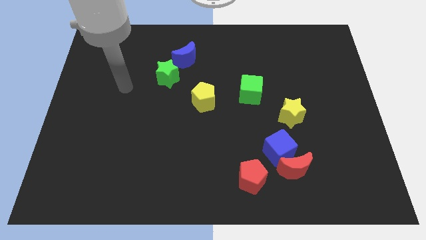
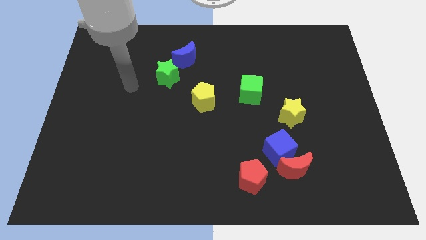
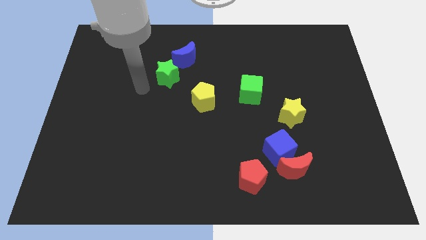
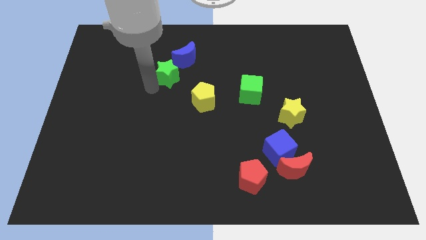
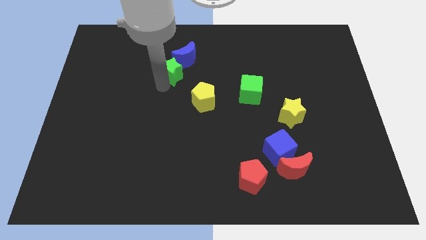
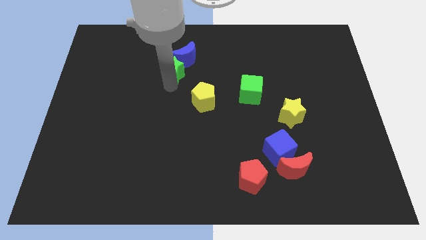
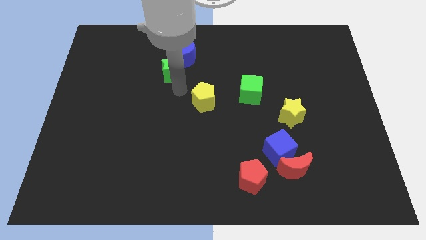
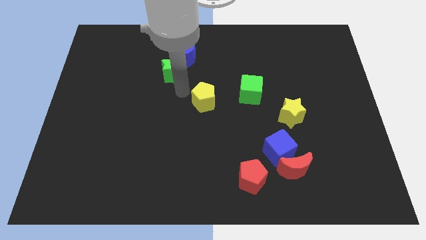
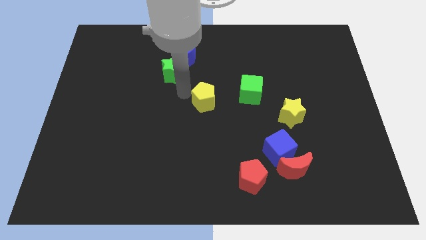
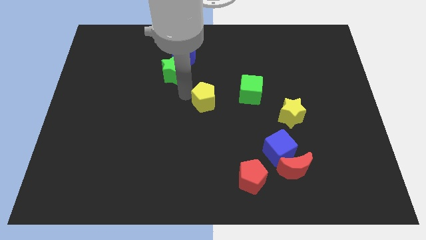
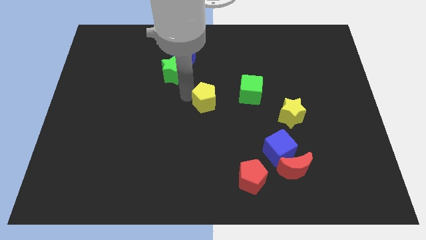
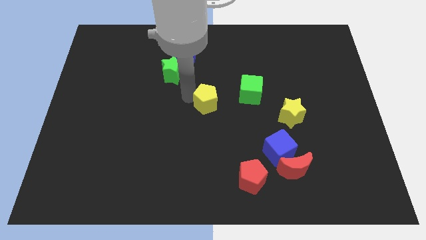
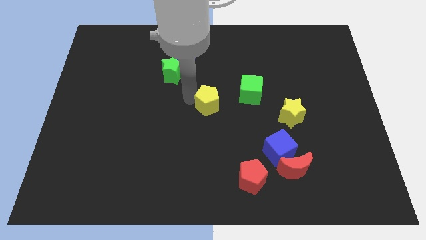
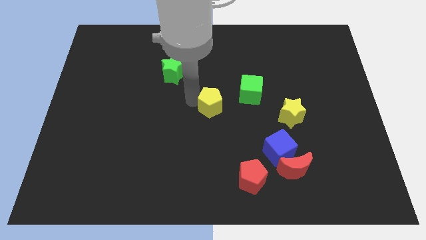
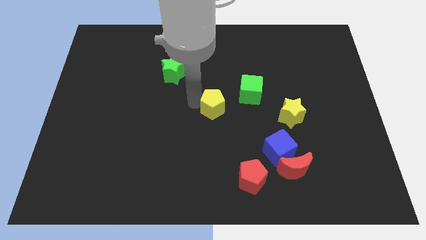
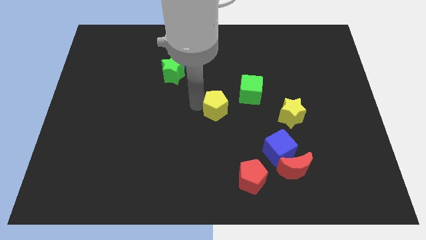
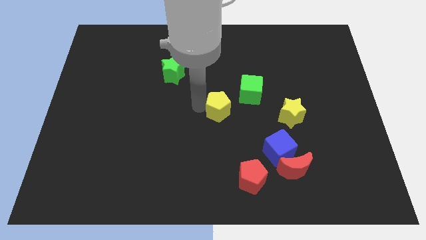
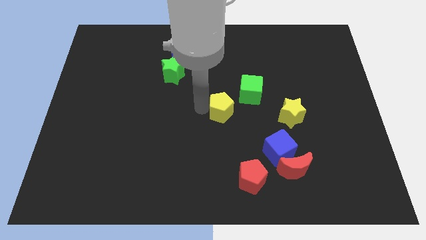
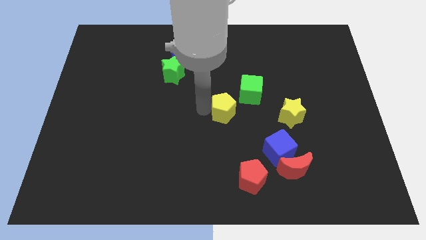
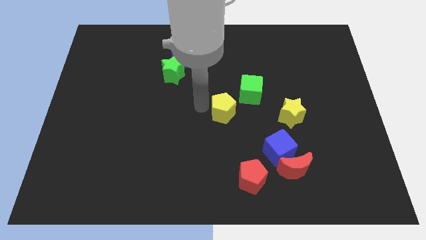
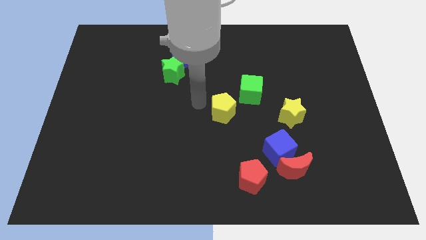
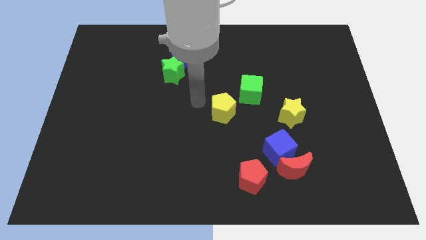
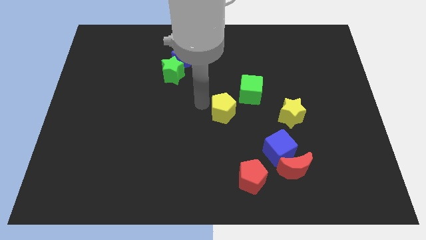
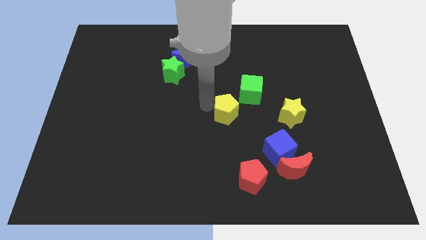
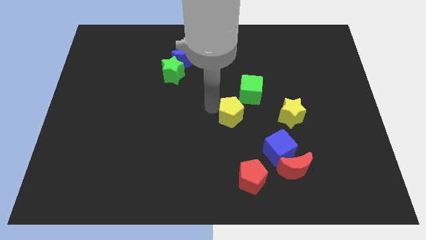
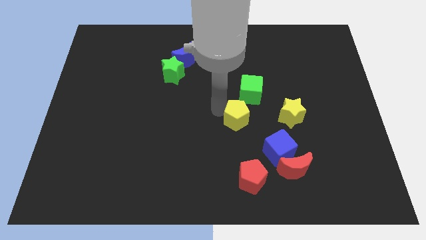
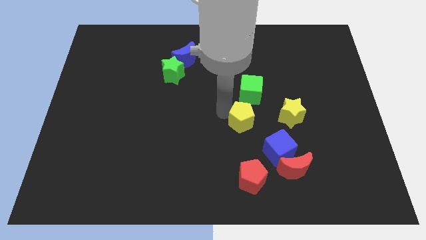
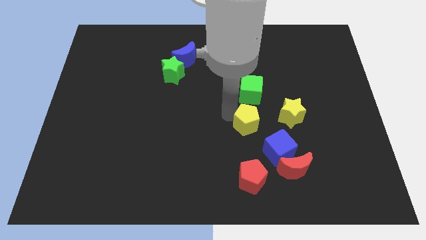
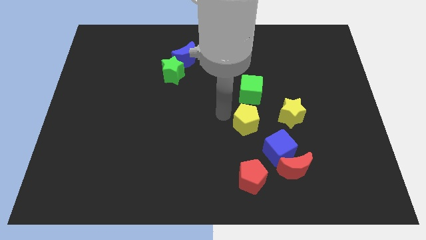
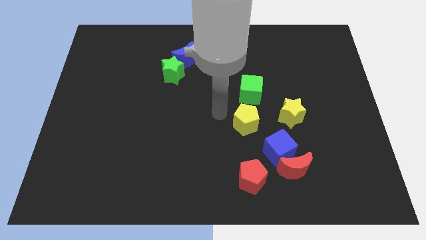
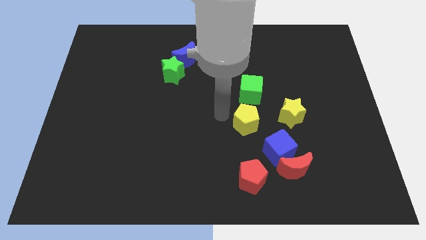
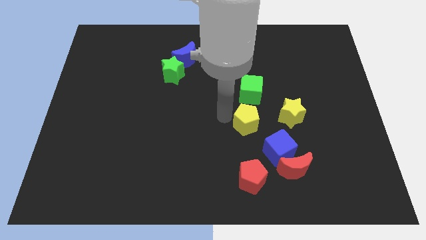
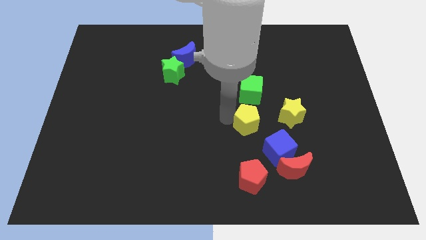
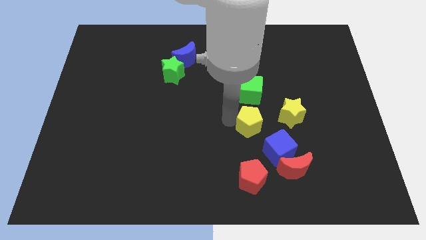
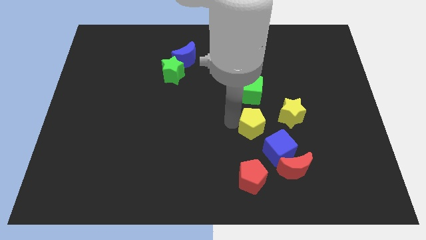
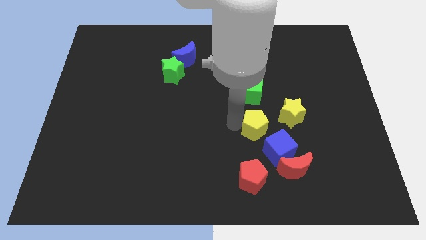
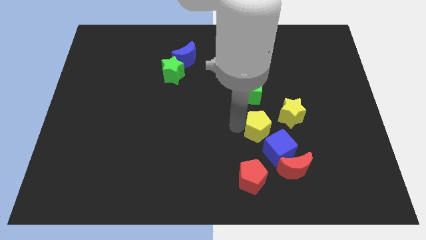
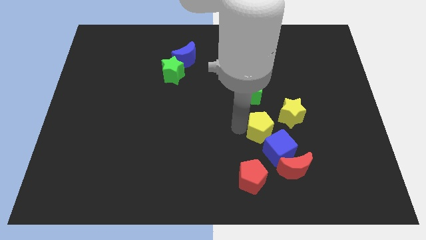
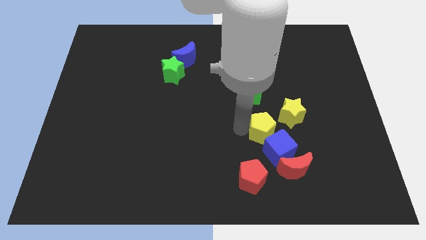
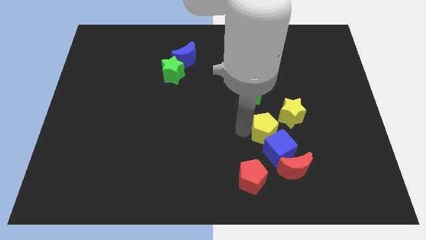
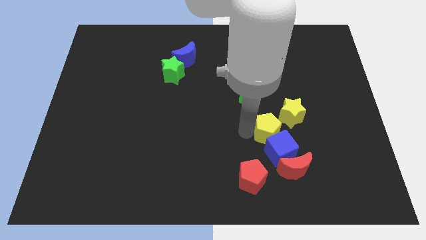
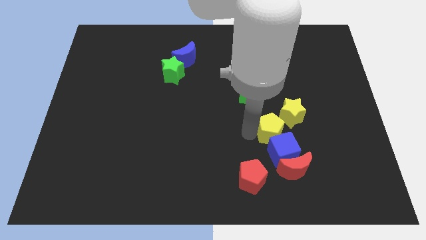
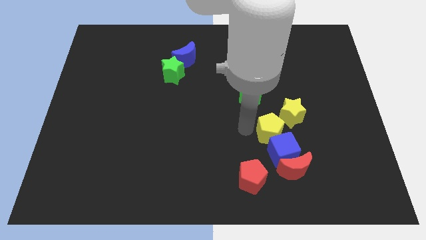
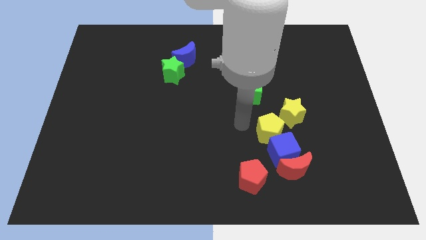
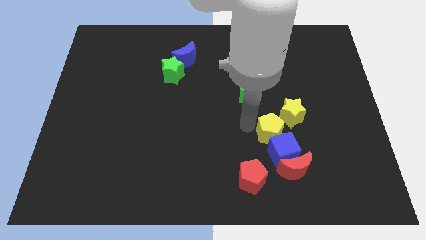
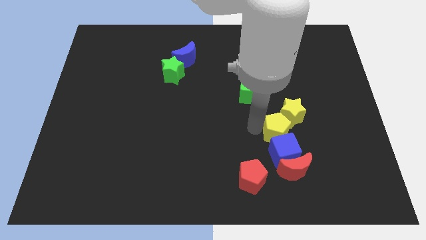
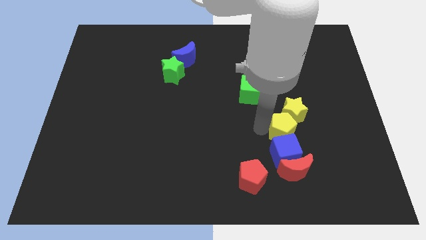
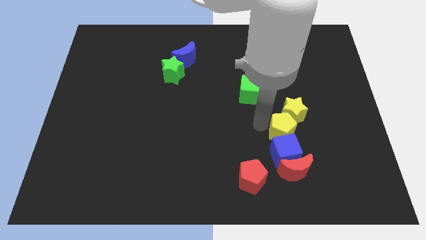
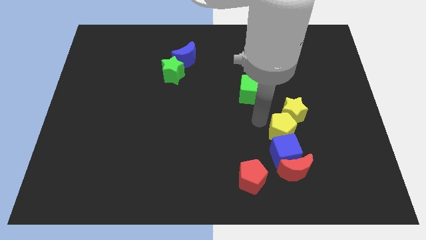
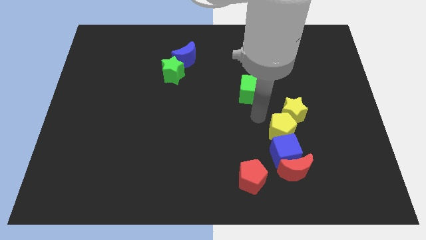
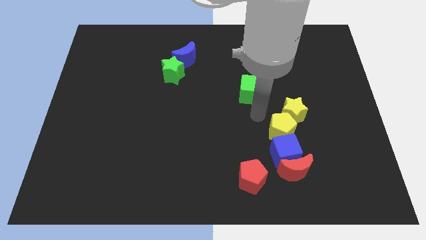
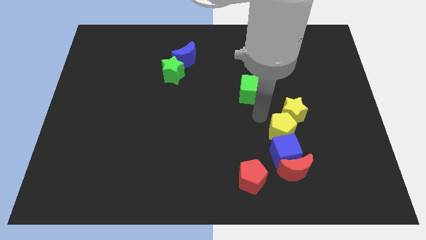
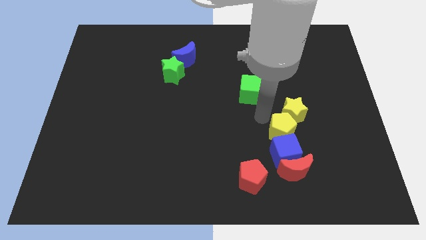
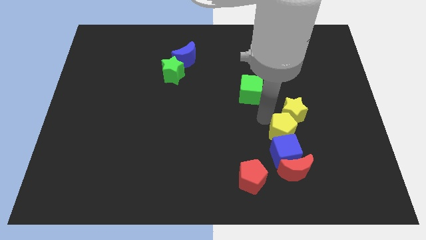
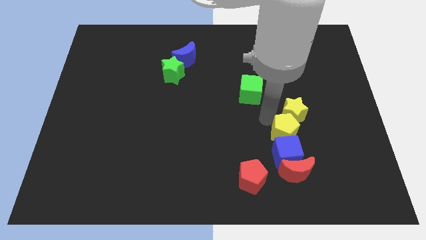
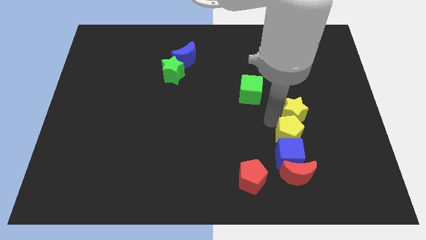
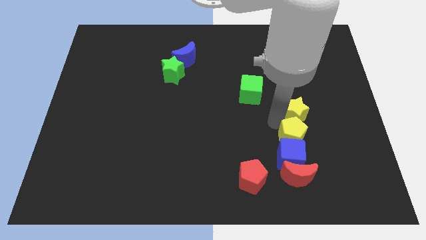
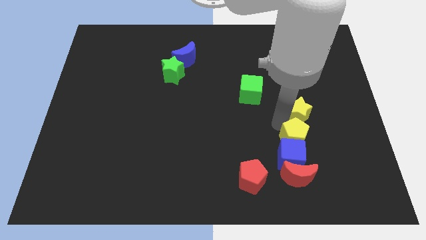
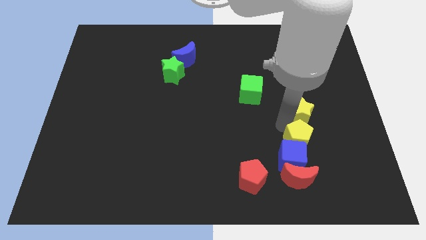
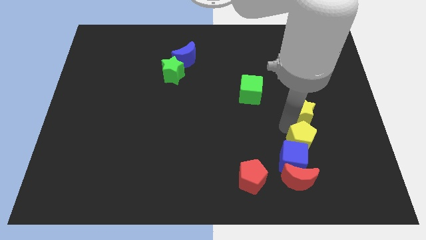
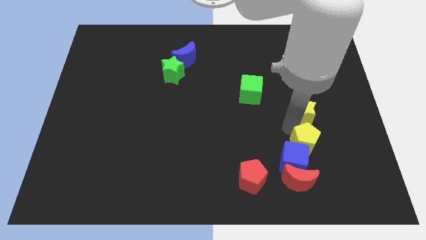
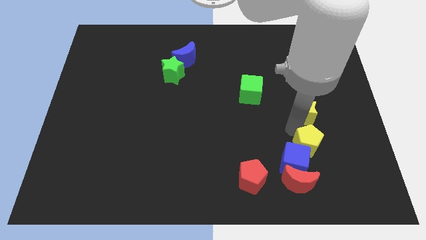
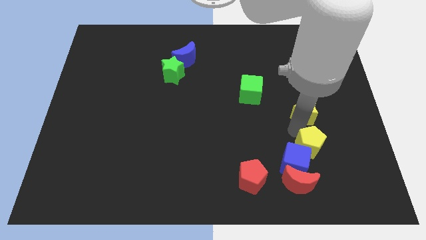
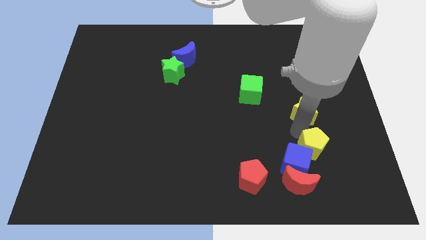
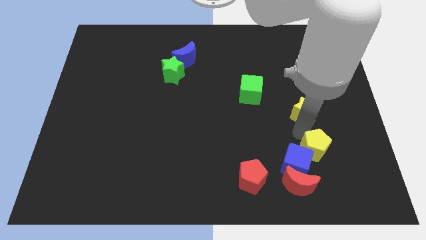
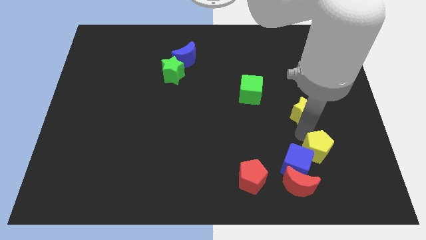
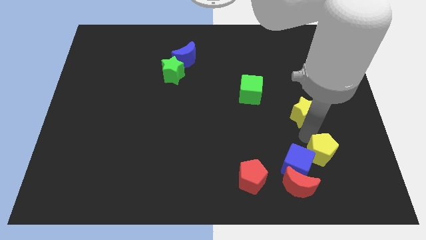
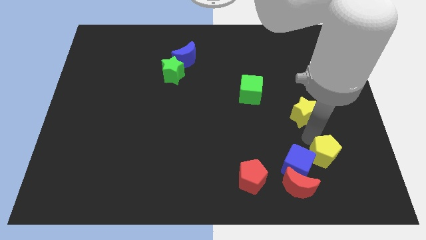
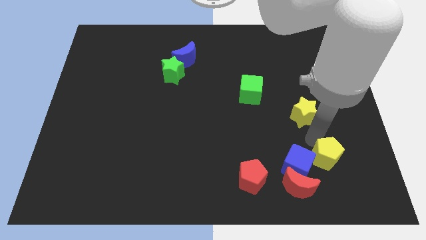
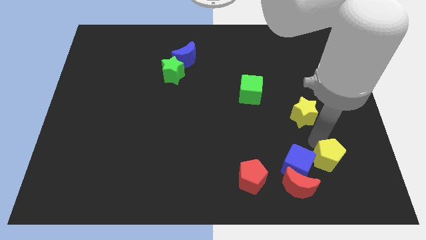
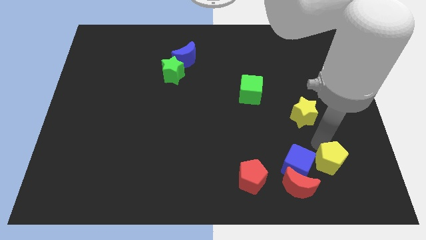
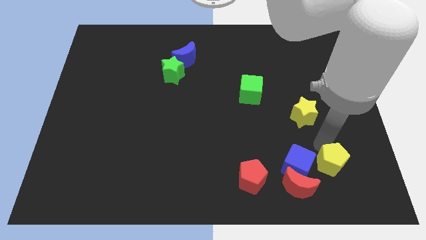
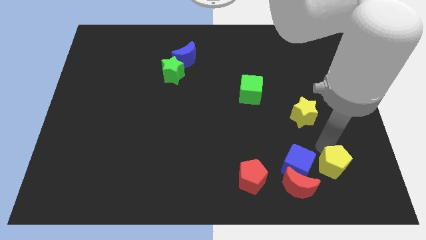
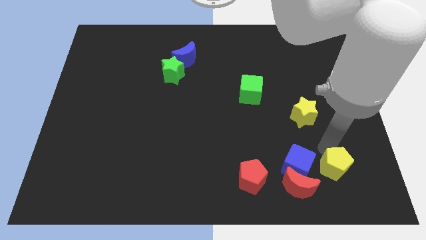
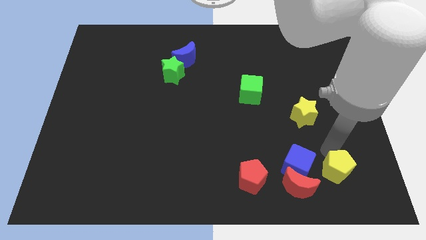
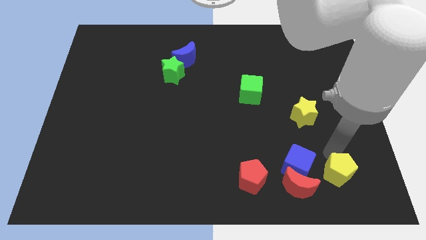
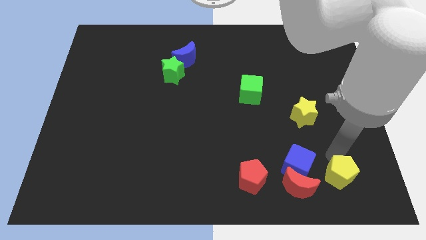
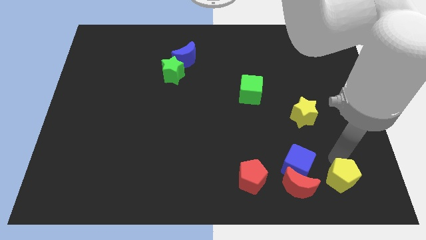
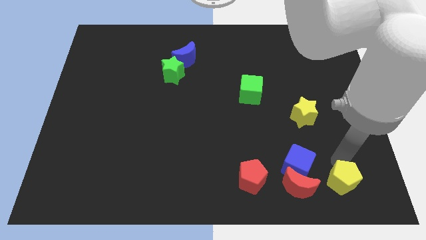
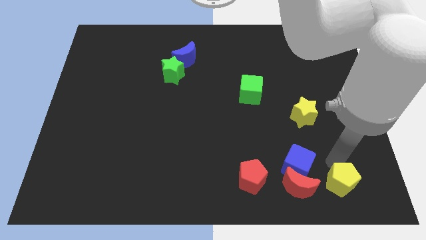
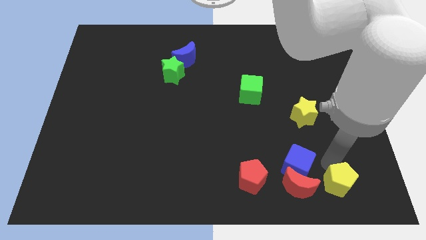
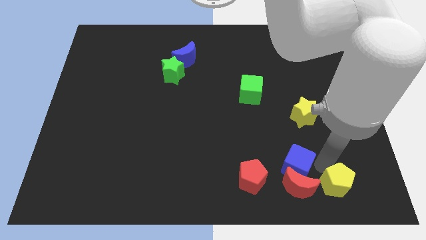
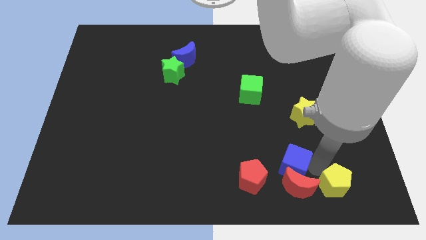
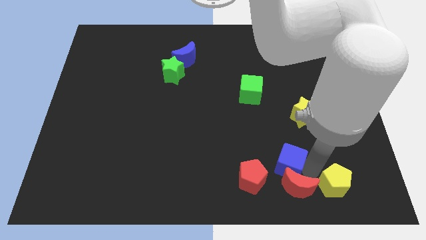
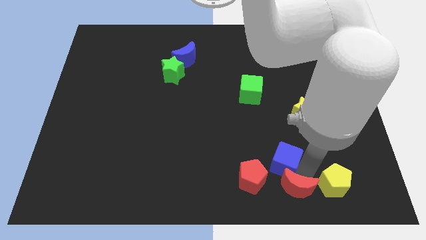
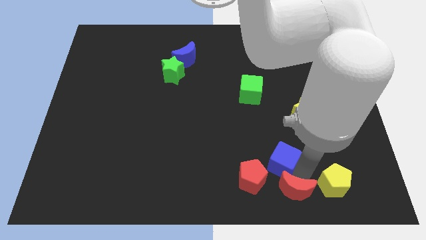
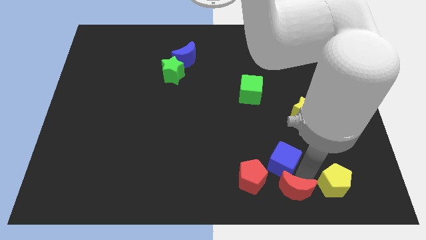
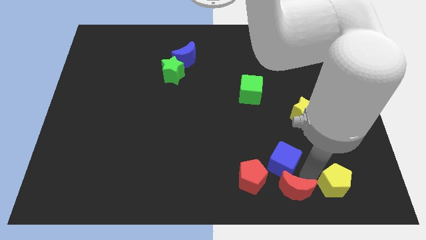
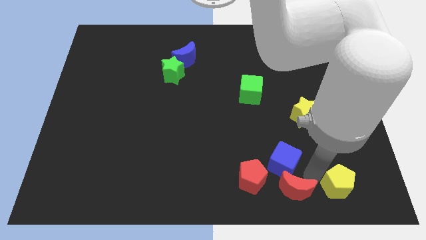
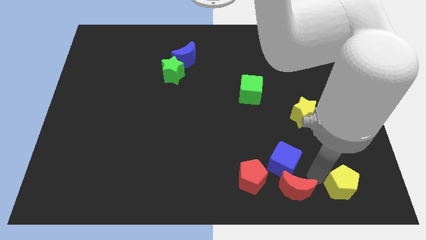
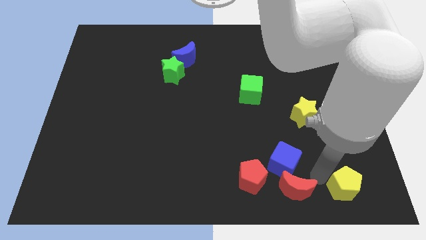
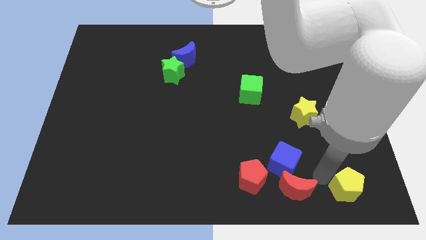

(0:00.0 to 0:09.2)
move the yellow pentagon to the lower right corner
